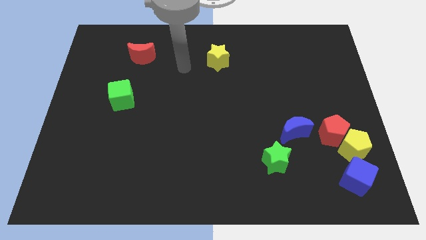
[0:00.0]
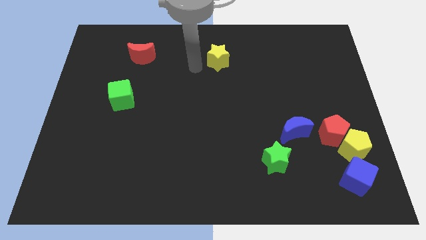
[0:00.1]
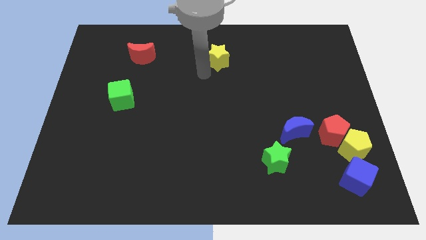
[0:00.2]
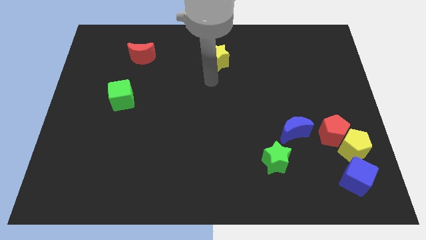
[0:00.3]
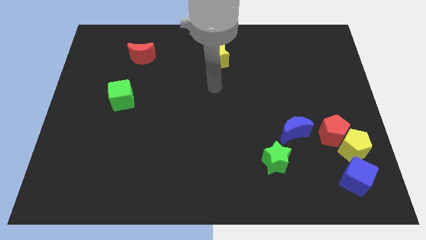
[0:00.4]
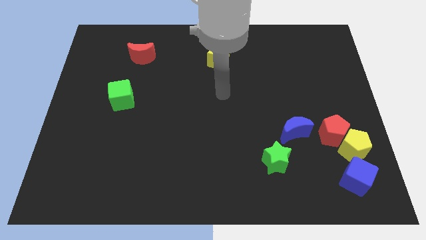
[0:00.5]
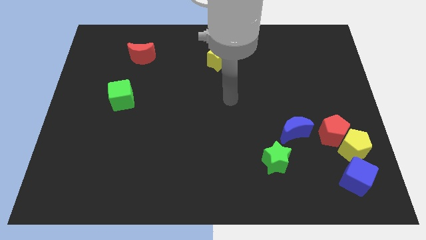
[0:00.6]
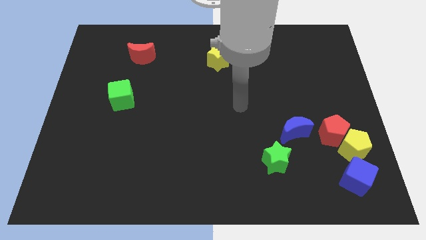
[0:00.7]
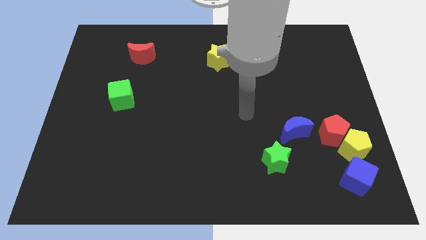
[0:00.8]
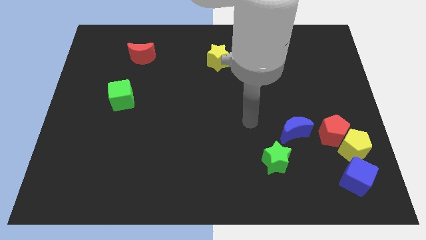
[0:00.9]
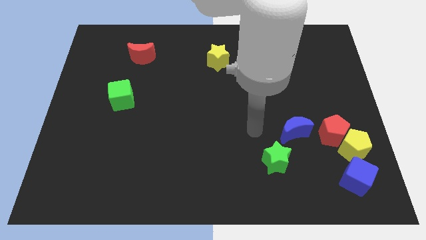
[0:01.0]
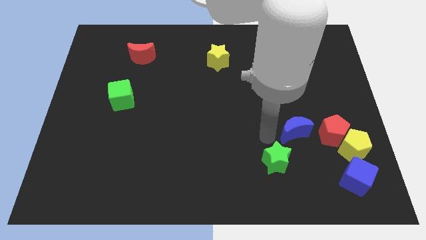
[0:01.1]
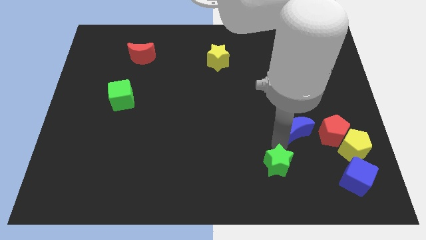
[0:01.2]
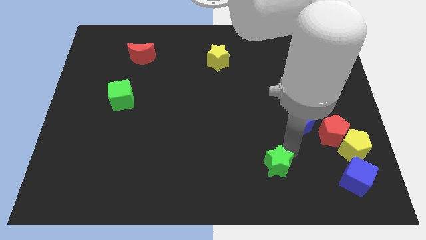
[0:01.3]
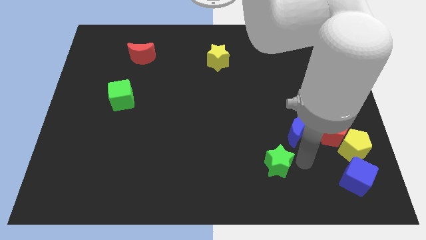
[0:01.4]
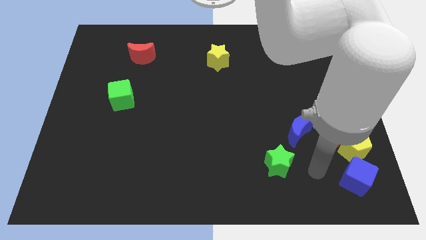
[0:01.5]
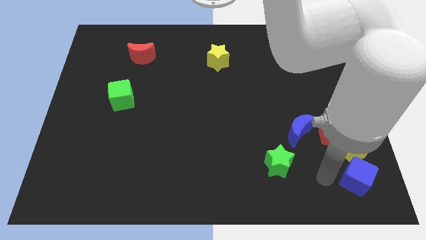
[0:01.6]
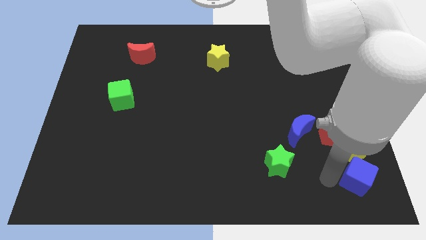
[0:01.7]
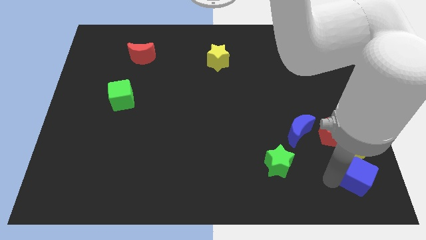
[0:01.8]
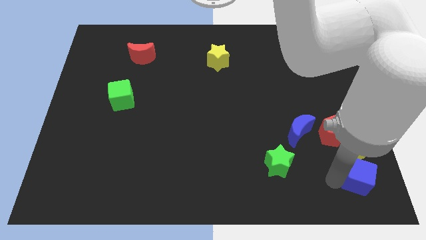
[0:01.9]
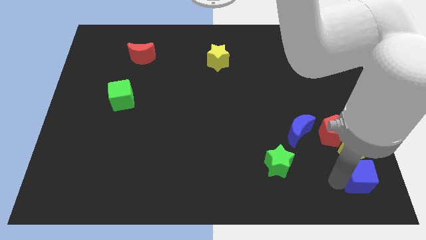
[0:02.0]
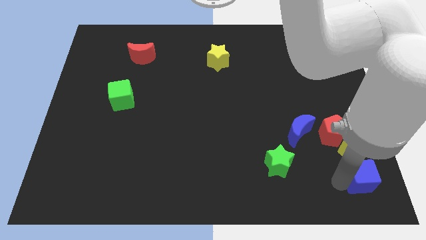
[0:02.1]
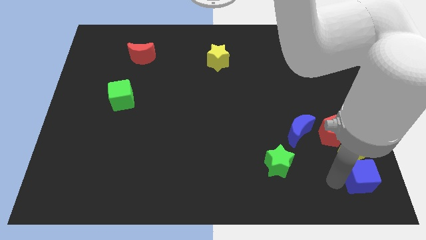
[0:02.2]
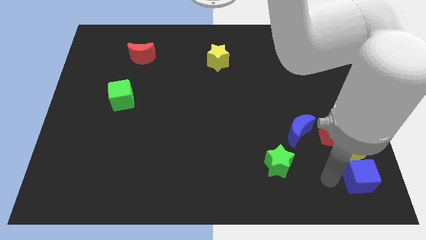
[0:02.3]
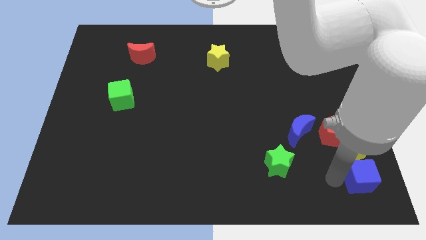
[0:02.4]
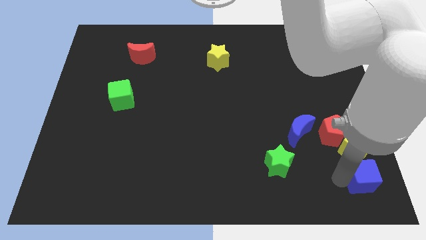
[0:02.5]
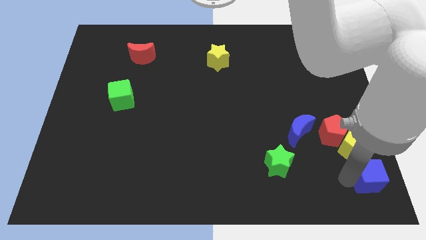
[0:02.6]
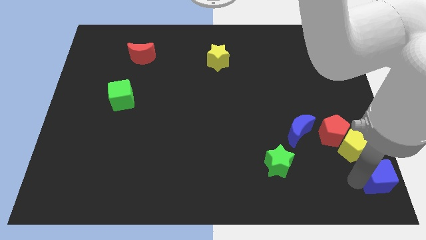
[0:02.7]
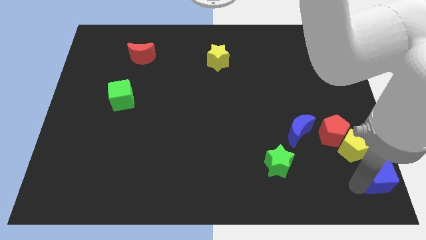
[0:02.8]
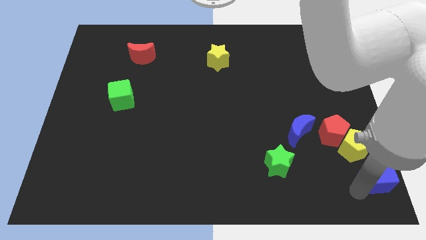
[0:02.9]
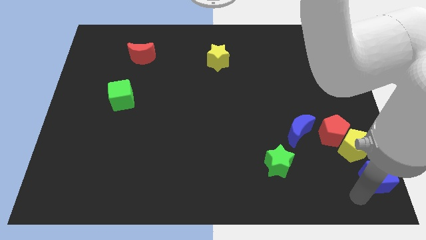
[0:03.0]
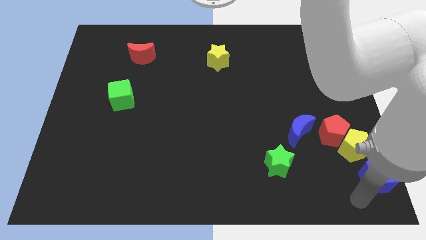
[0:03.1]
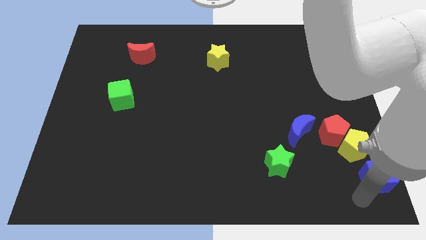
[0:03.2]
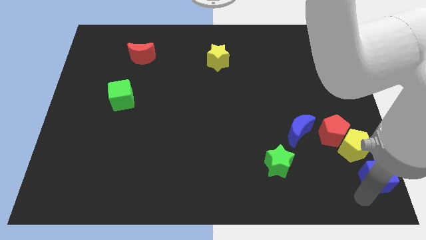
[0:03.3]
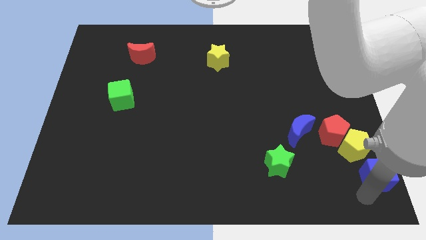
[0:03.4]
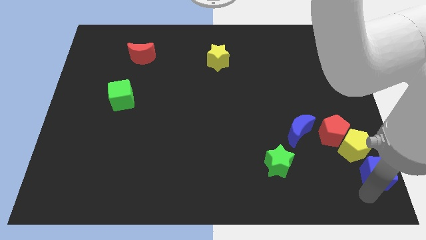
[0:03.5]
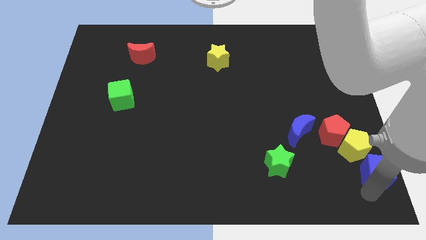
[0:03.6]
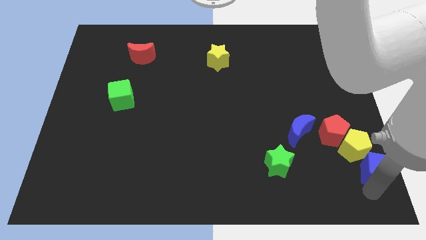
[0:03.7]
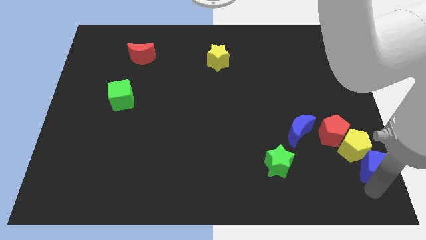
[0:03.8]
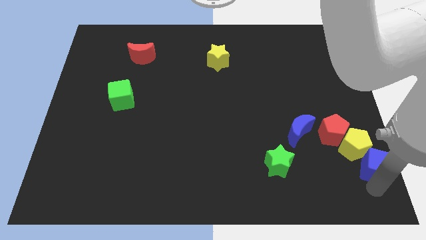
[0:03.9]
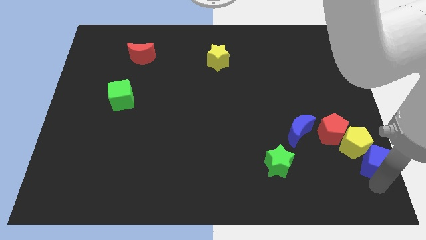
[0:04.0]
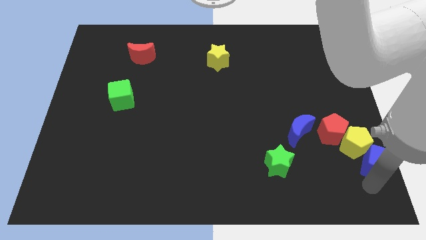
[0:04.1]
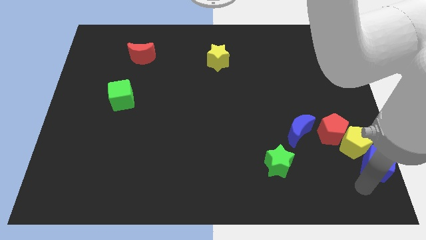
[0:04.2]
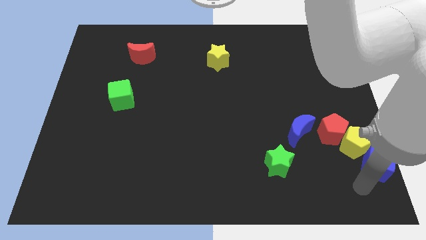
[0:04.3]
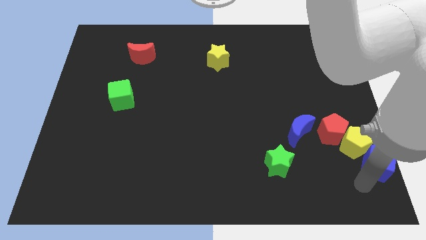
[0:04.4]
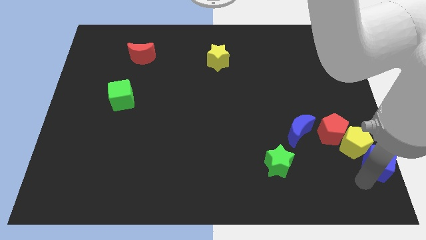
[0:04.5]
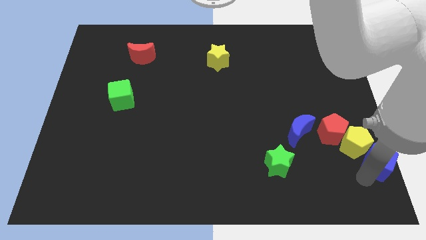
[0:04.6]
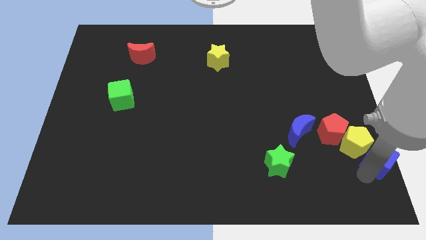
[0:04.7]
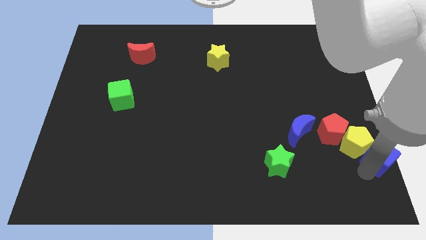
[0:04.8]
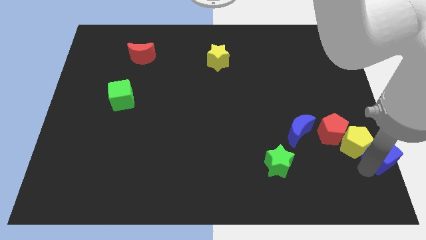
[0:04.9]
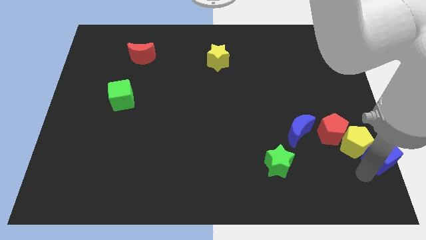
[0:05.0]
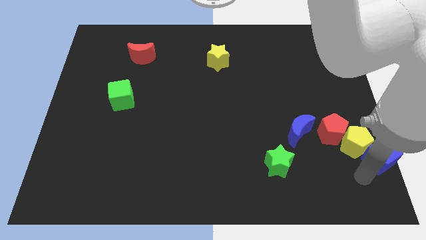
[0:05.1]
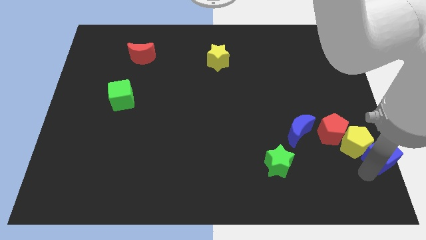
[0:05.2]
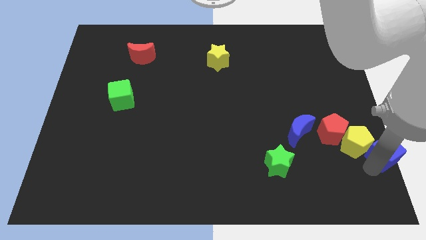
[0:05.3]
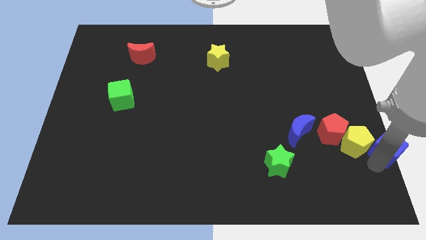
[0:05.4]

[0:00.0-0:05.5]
put the blue cube to the center right
